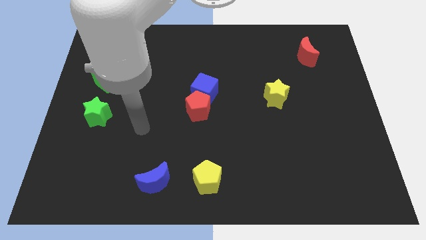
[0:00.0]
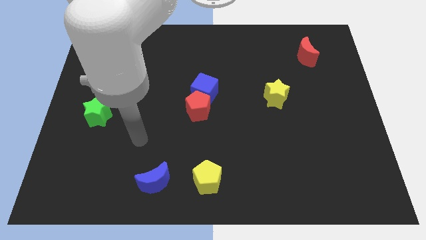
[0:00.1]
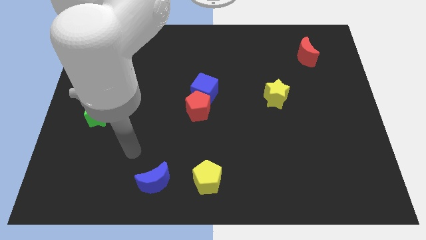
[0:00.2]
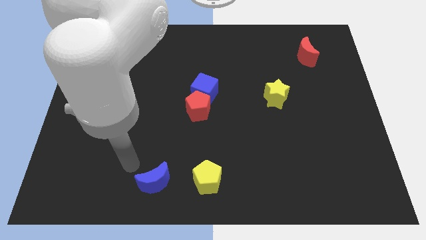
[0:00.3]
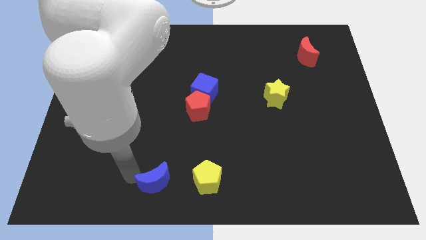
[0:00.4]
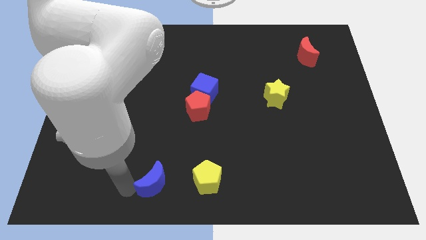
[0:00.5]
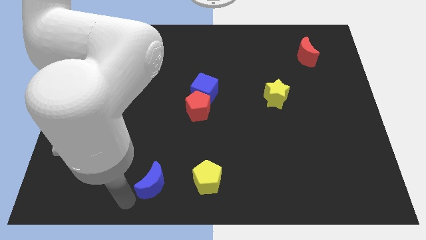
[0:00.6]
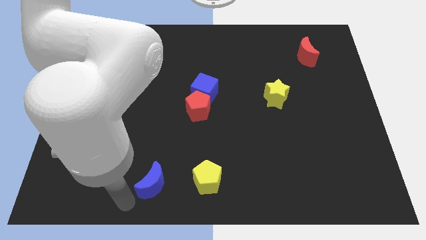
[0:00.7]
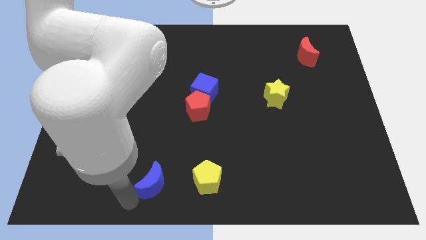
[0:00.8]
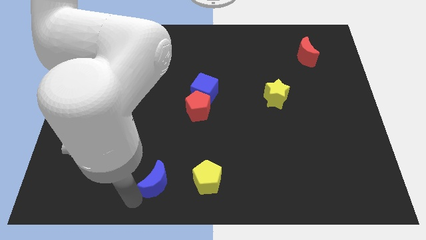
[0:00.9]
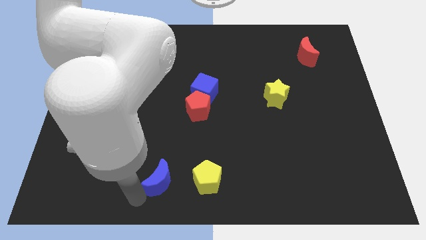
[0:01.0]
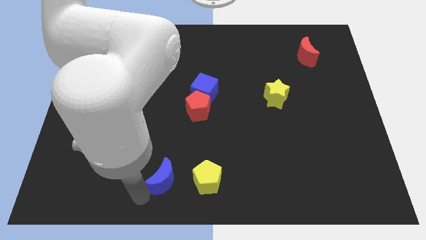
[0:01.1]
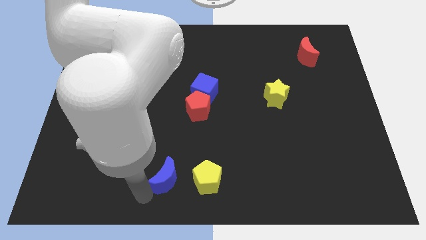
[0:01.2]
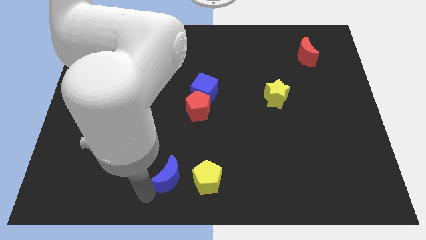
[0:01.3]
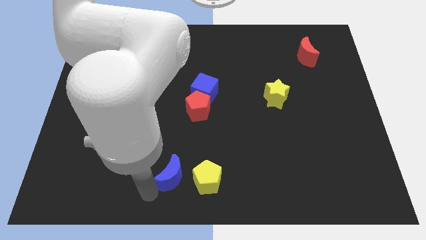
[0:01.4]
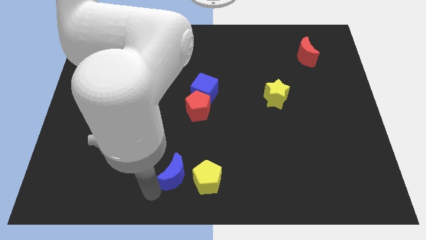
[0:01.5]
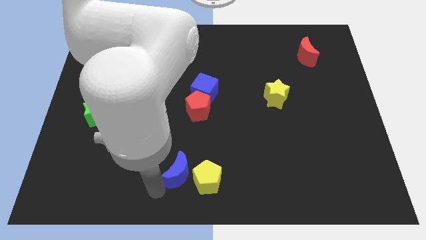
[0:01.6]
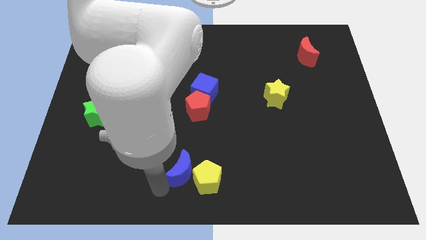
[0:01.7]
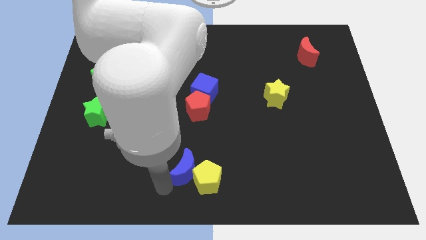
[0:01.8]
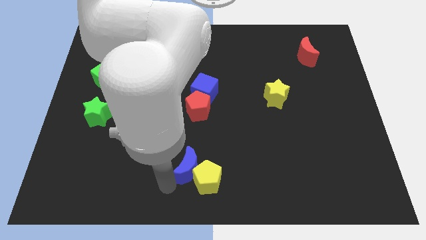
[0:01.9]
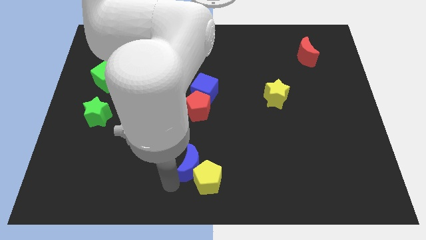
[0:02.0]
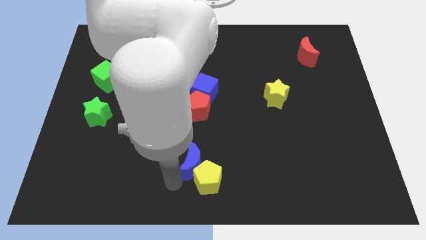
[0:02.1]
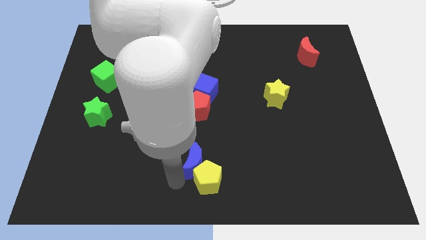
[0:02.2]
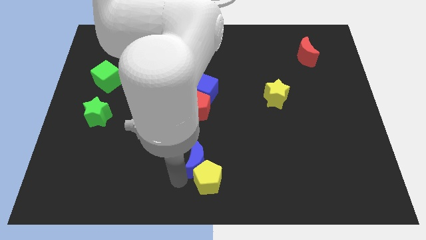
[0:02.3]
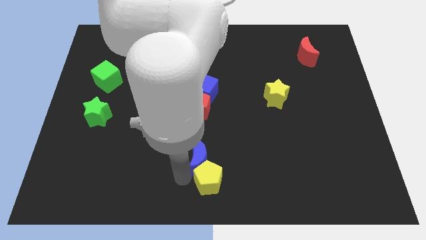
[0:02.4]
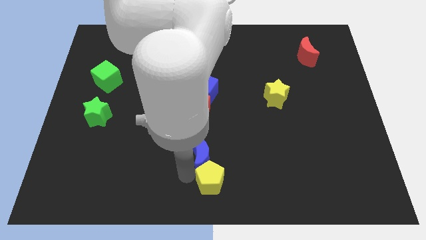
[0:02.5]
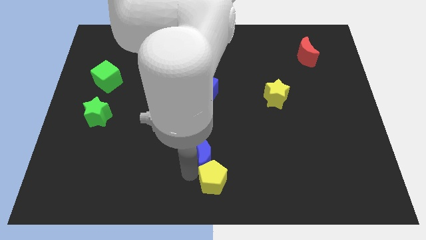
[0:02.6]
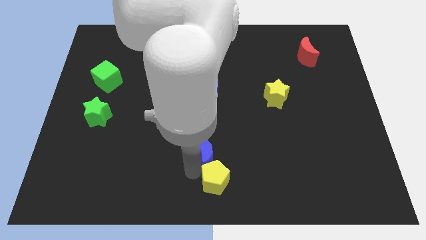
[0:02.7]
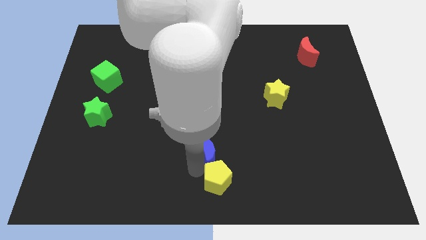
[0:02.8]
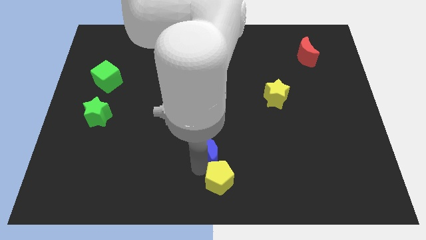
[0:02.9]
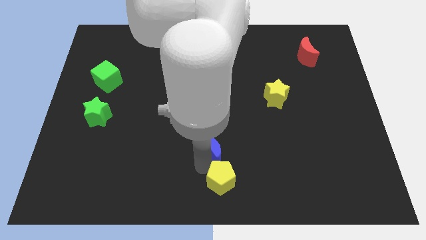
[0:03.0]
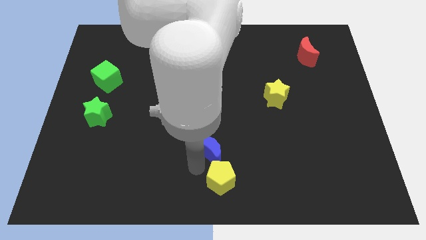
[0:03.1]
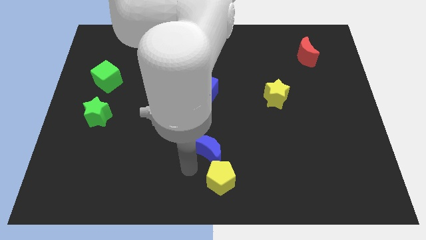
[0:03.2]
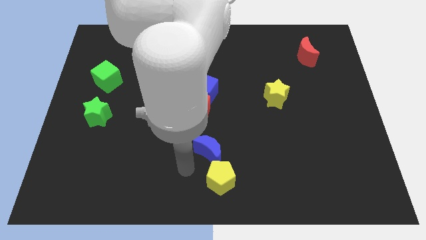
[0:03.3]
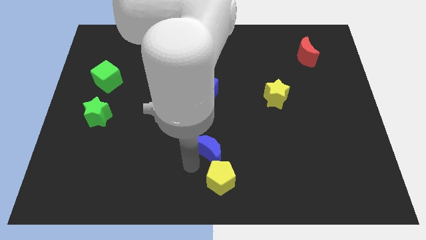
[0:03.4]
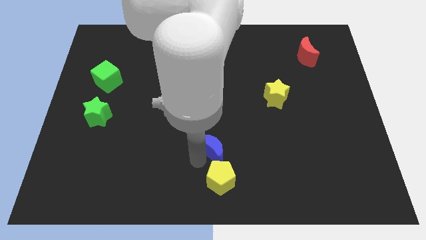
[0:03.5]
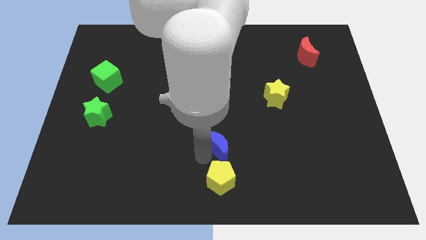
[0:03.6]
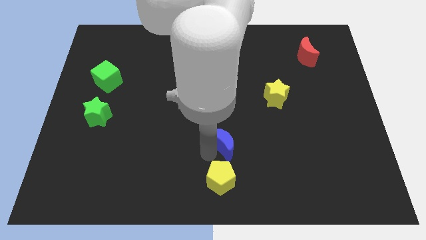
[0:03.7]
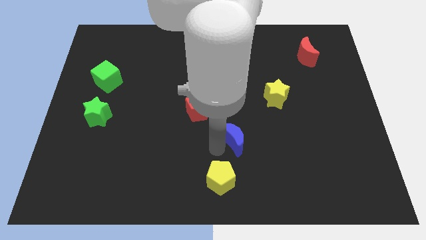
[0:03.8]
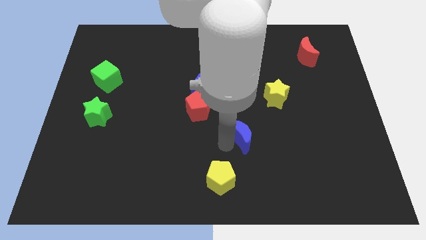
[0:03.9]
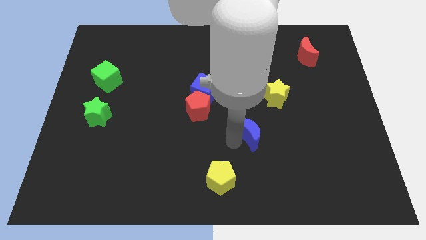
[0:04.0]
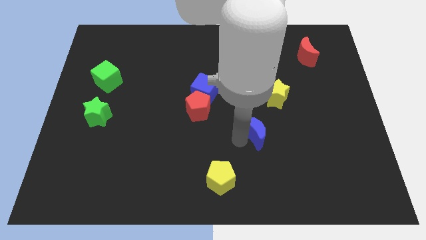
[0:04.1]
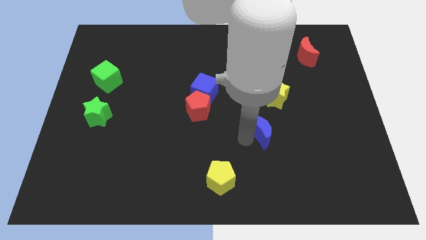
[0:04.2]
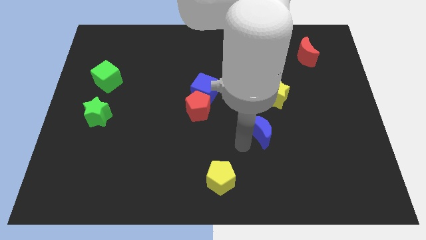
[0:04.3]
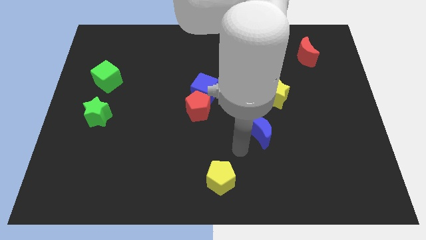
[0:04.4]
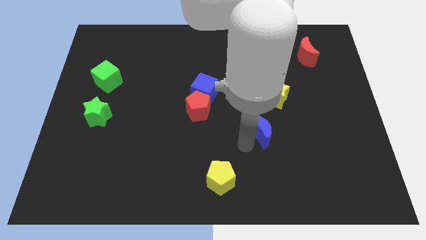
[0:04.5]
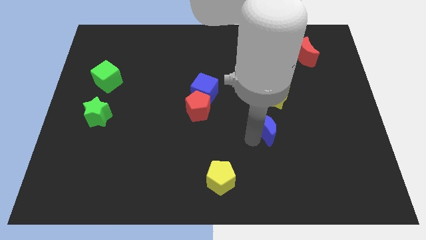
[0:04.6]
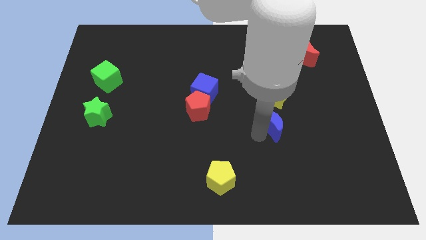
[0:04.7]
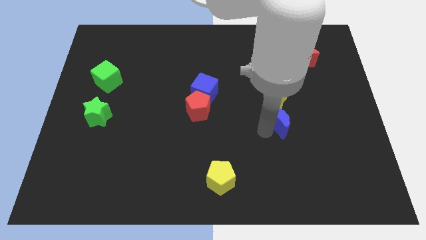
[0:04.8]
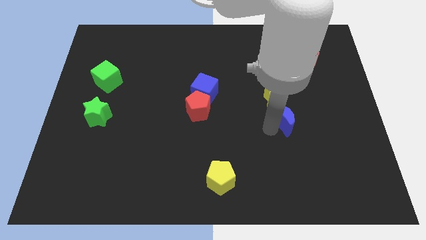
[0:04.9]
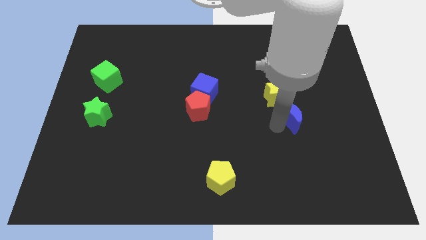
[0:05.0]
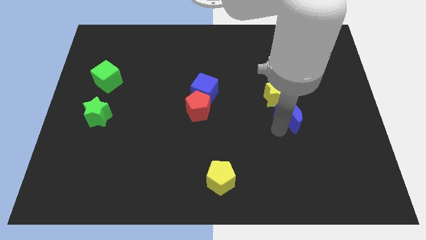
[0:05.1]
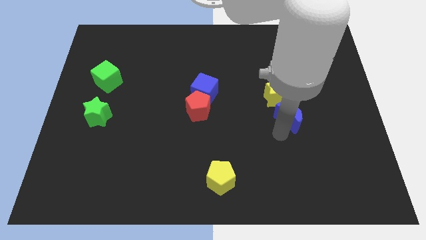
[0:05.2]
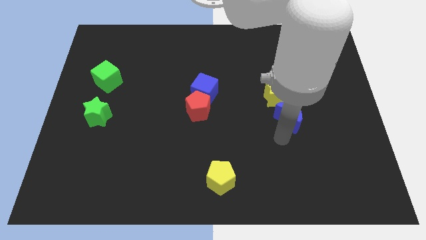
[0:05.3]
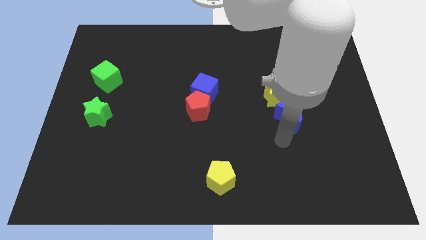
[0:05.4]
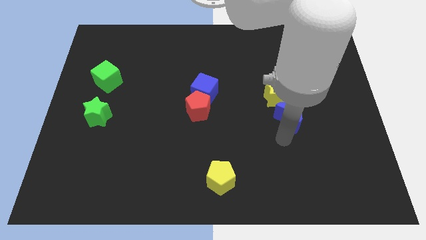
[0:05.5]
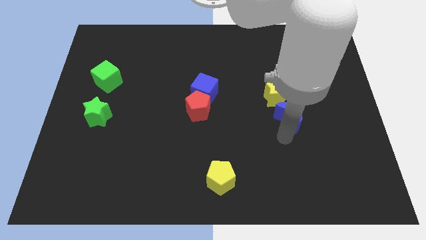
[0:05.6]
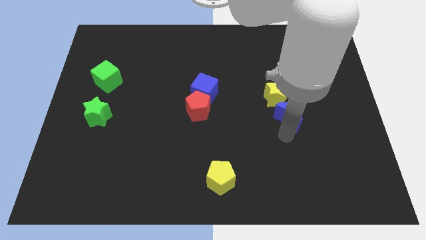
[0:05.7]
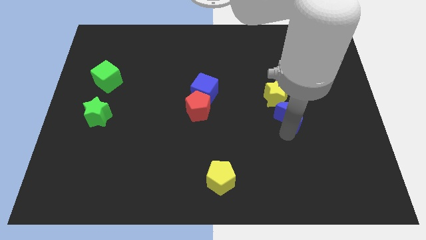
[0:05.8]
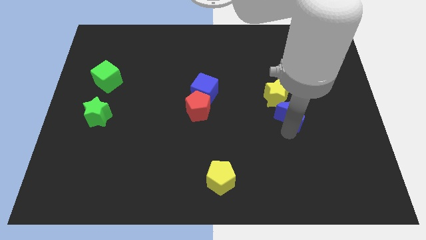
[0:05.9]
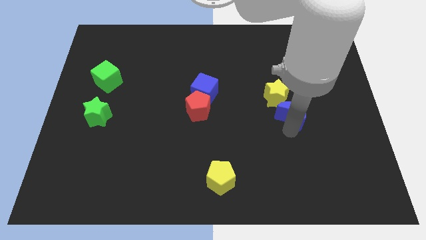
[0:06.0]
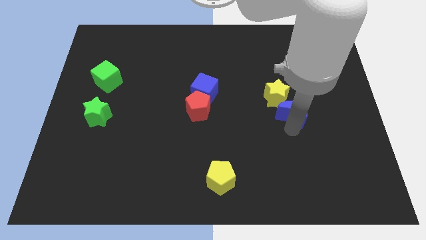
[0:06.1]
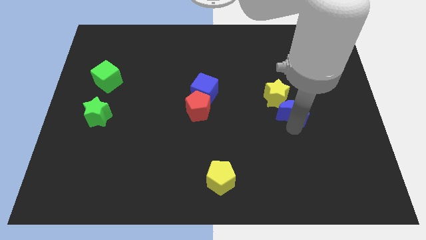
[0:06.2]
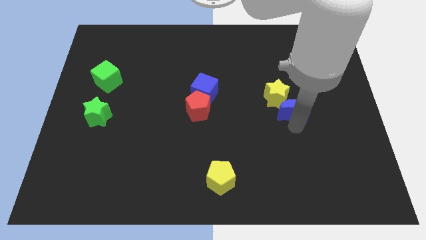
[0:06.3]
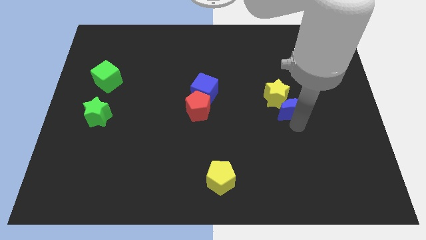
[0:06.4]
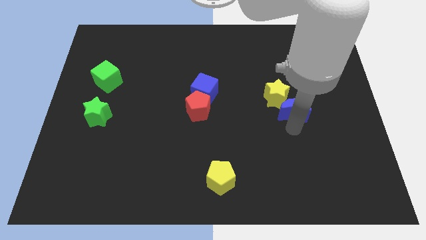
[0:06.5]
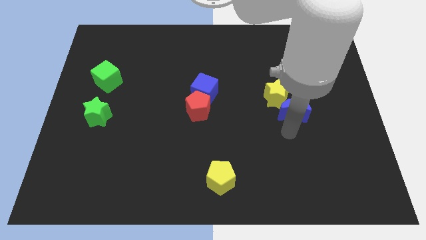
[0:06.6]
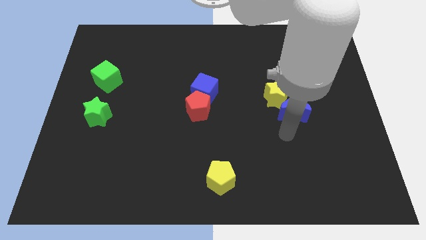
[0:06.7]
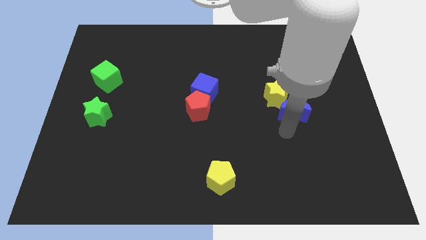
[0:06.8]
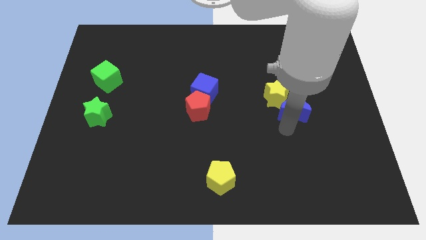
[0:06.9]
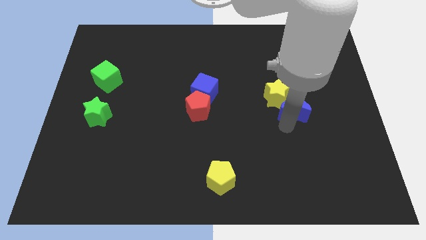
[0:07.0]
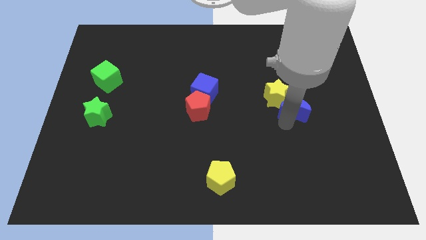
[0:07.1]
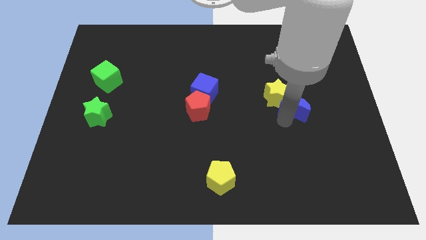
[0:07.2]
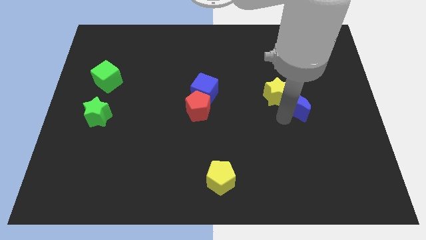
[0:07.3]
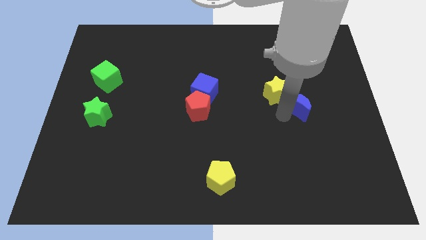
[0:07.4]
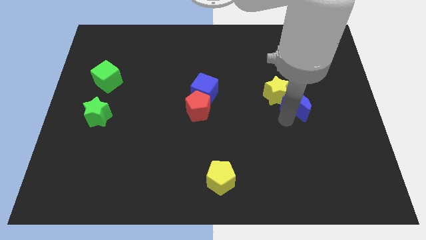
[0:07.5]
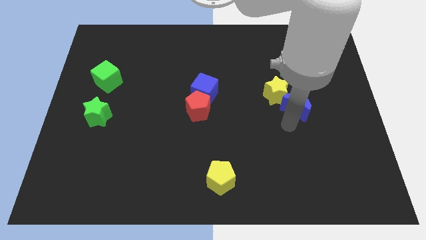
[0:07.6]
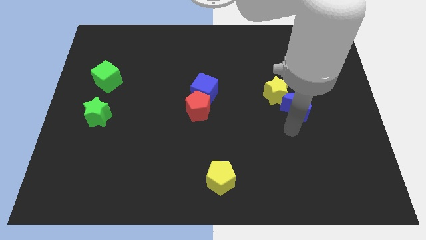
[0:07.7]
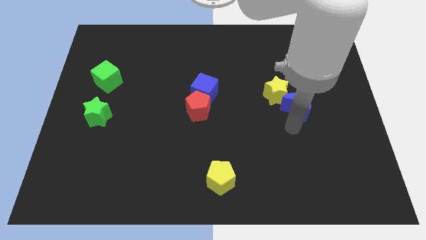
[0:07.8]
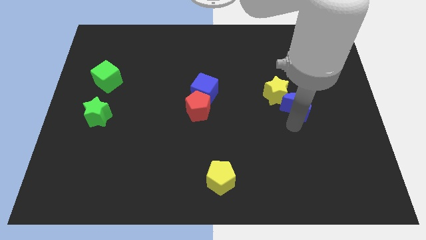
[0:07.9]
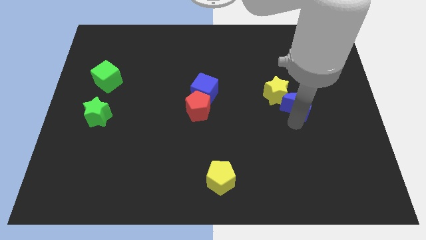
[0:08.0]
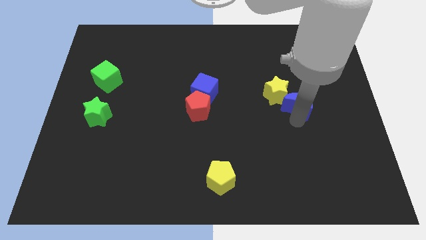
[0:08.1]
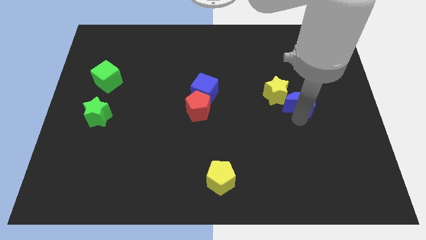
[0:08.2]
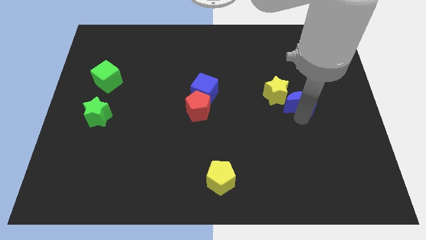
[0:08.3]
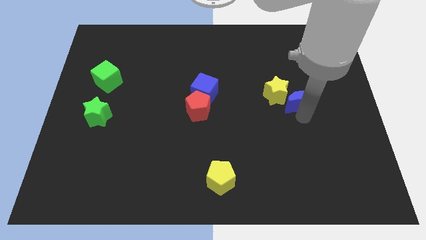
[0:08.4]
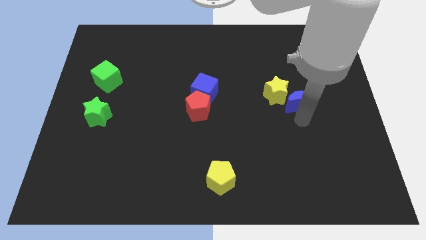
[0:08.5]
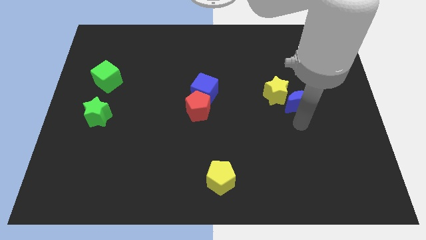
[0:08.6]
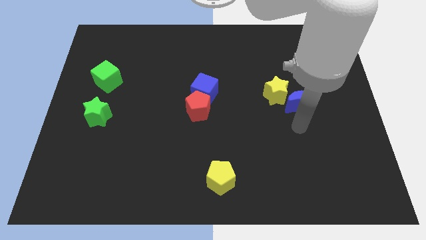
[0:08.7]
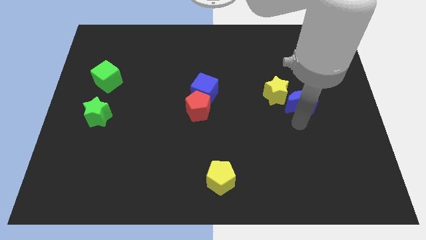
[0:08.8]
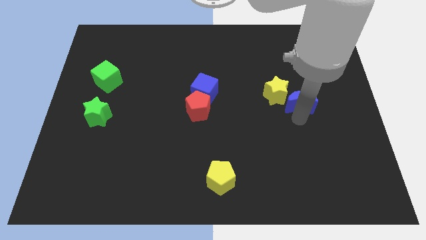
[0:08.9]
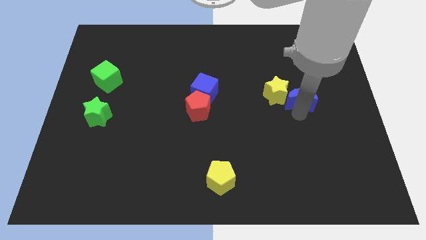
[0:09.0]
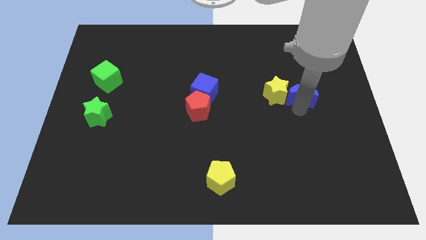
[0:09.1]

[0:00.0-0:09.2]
put the blue moon to the bottom of the red moon
